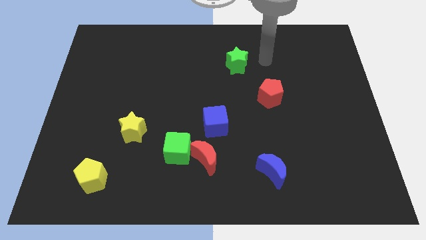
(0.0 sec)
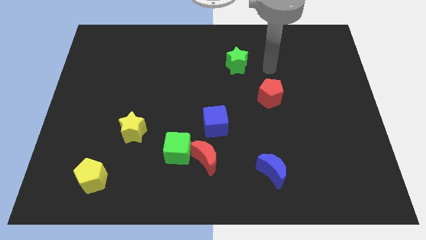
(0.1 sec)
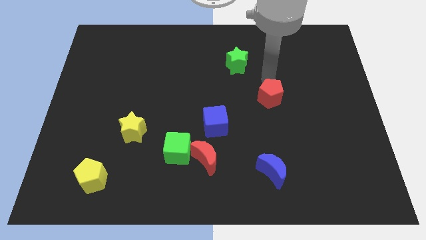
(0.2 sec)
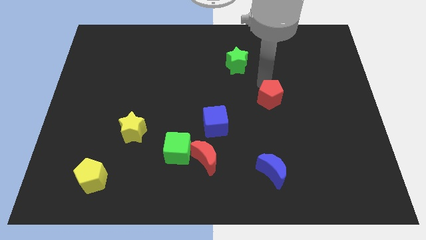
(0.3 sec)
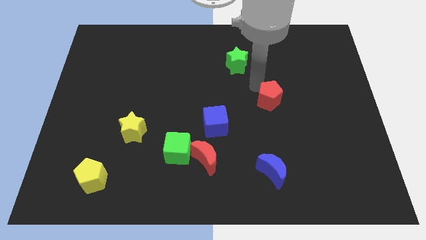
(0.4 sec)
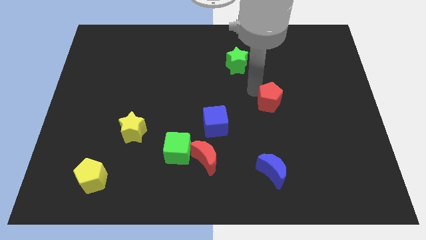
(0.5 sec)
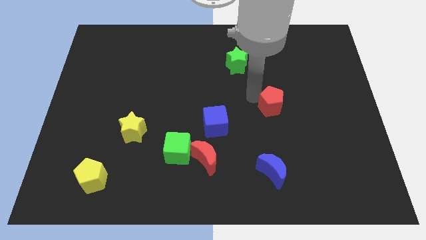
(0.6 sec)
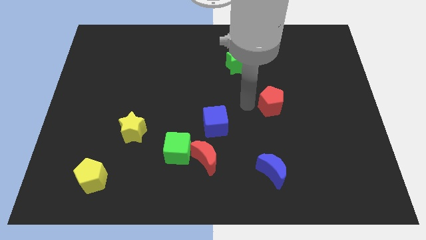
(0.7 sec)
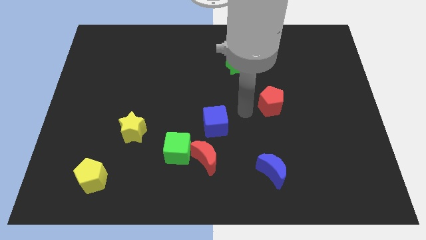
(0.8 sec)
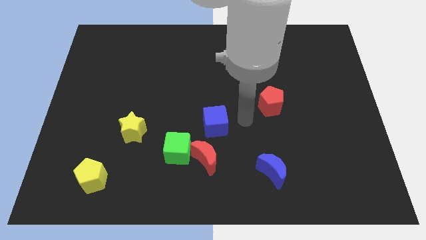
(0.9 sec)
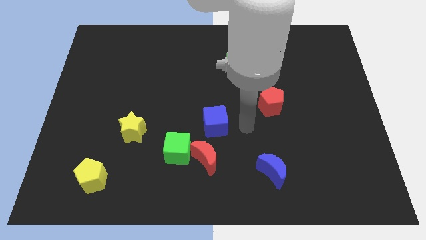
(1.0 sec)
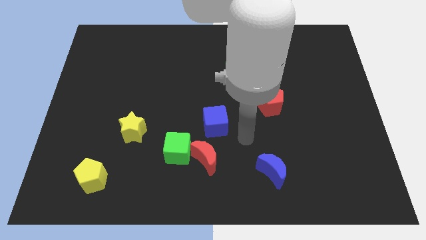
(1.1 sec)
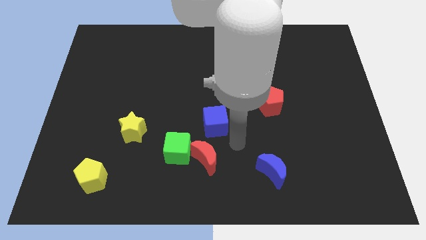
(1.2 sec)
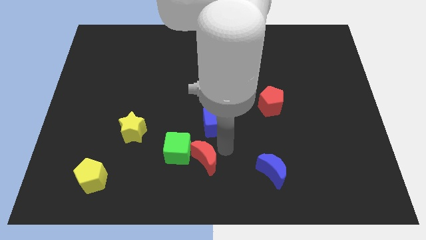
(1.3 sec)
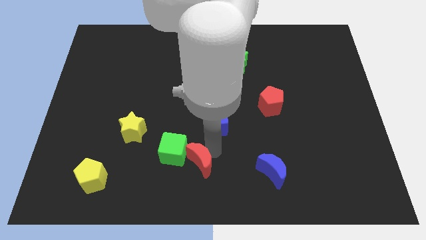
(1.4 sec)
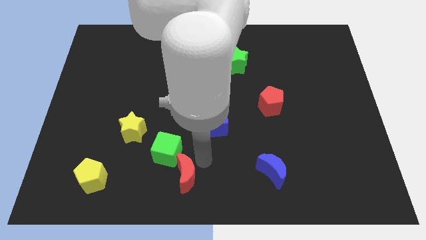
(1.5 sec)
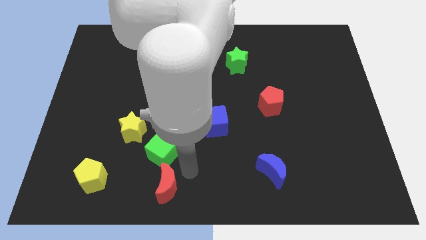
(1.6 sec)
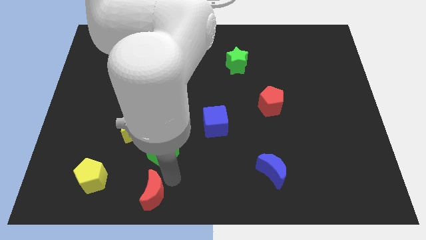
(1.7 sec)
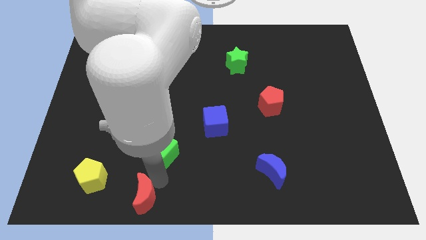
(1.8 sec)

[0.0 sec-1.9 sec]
pull the green cube apart from the red moon

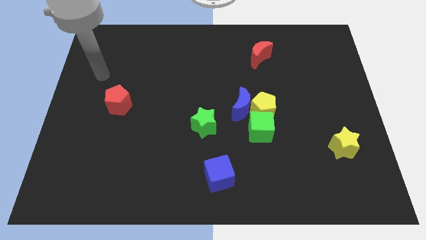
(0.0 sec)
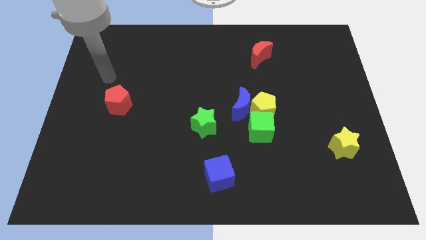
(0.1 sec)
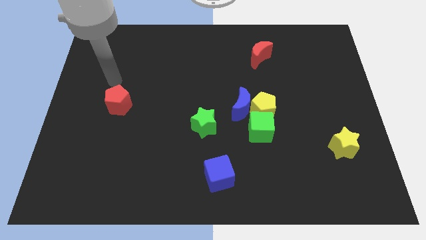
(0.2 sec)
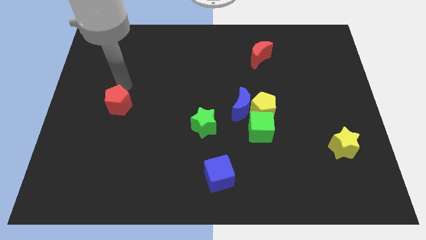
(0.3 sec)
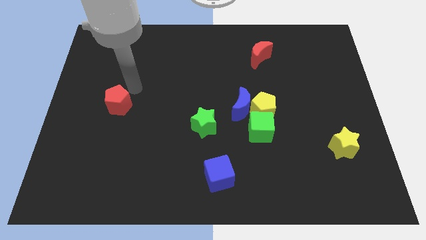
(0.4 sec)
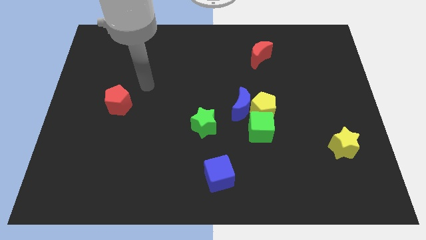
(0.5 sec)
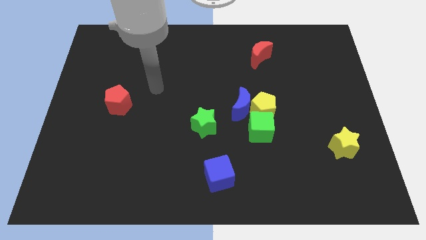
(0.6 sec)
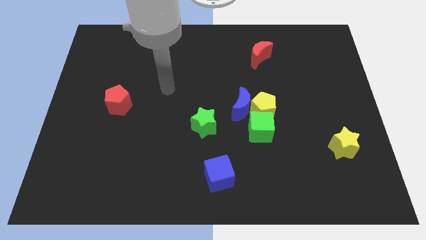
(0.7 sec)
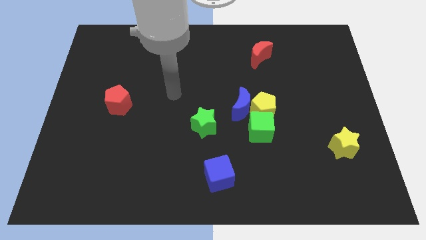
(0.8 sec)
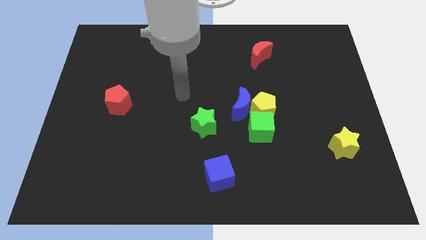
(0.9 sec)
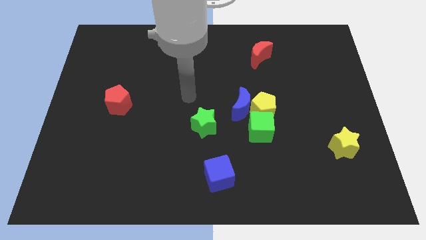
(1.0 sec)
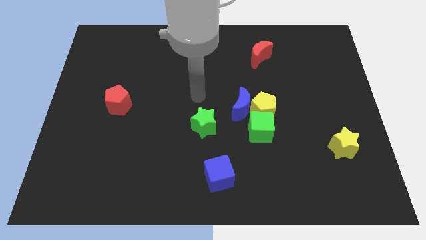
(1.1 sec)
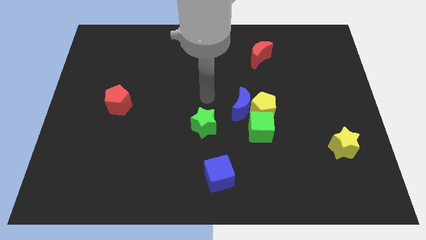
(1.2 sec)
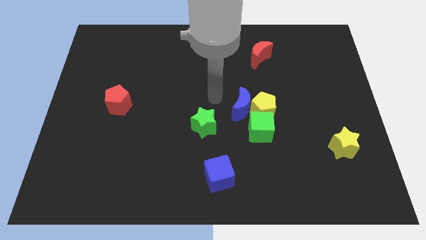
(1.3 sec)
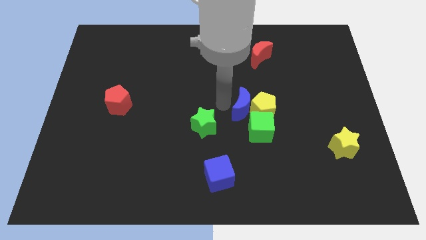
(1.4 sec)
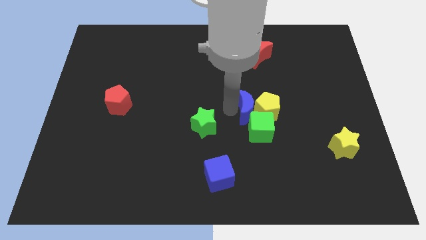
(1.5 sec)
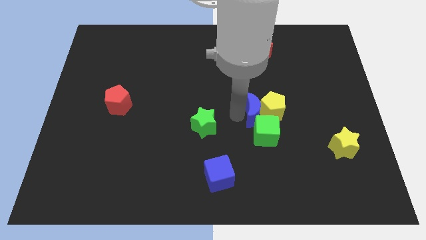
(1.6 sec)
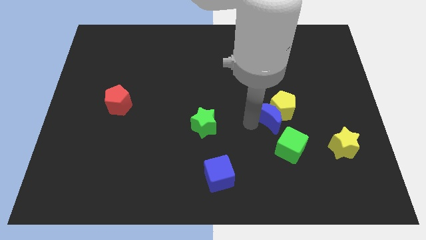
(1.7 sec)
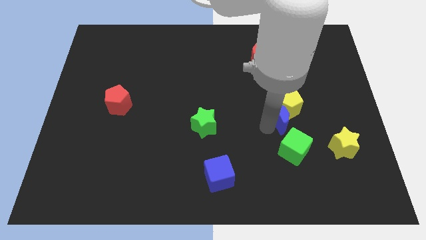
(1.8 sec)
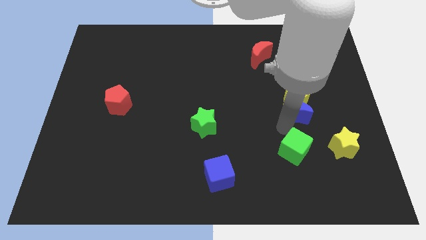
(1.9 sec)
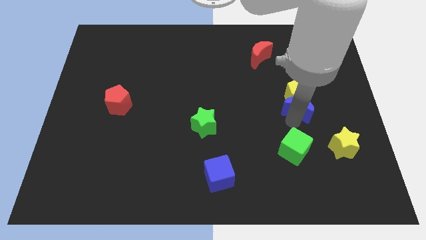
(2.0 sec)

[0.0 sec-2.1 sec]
move the yellow pentagon away from the blue moon and green cube

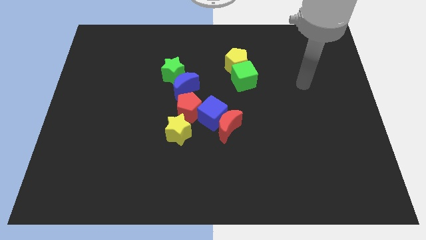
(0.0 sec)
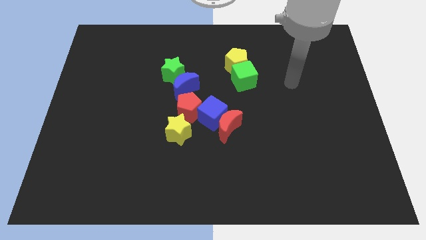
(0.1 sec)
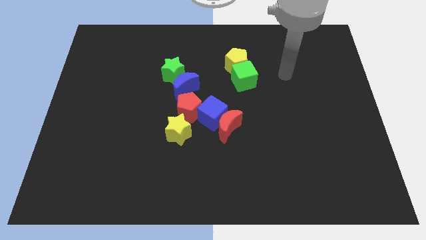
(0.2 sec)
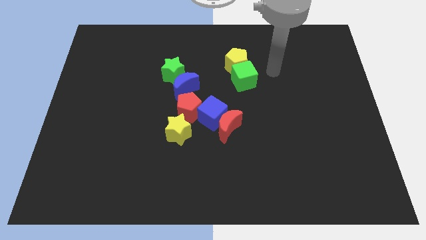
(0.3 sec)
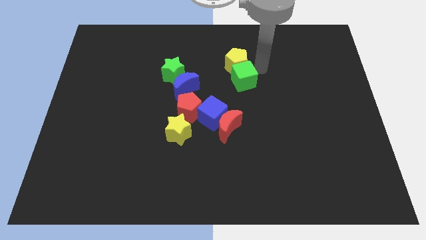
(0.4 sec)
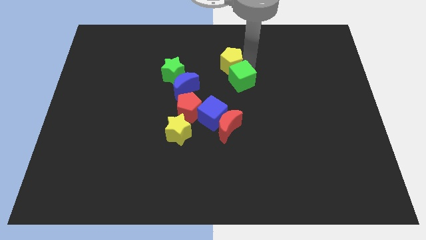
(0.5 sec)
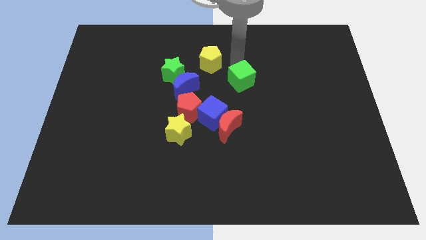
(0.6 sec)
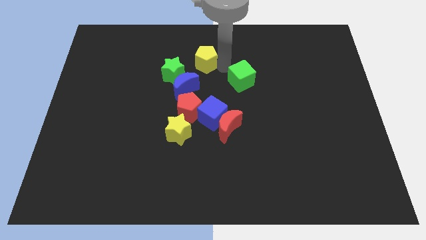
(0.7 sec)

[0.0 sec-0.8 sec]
pull the green cube apart from the yellow pentagon

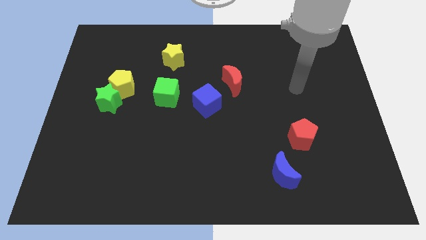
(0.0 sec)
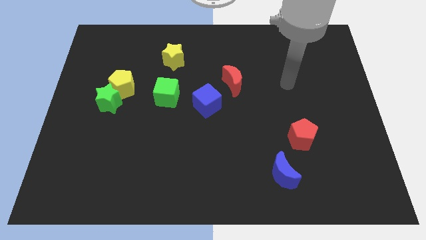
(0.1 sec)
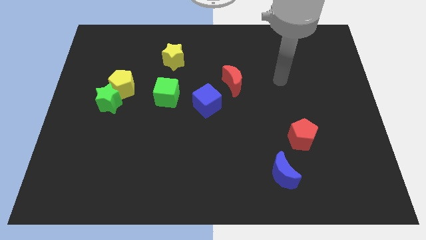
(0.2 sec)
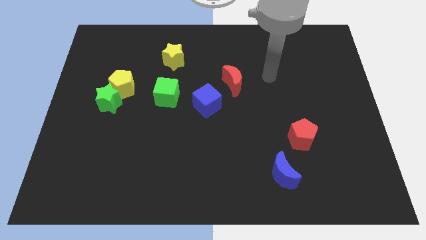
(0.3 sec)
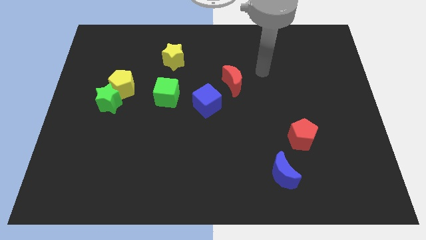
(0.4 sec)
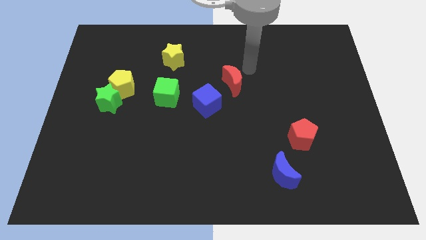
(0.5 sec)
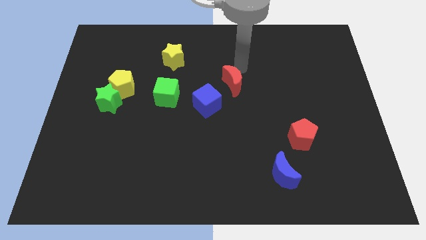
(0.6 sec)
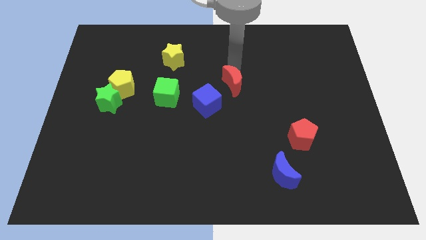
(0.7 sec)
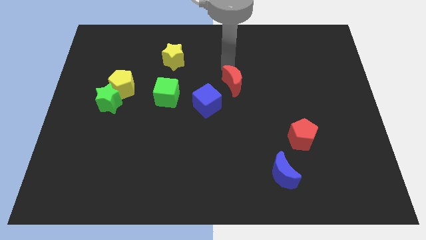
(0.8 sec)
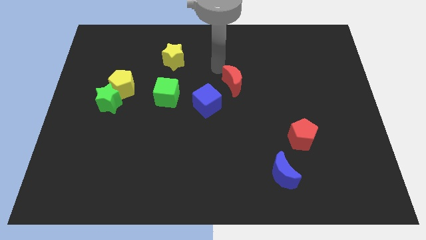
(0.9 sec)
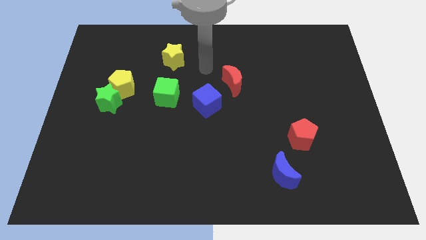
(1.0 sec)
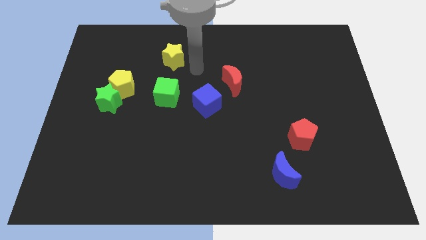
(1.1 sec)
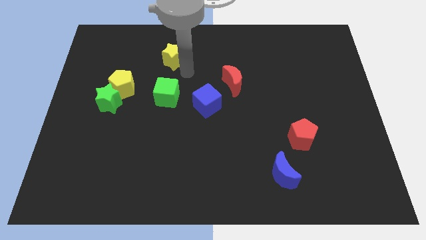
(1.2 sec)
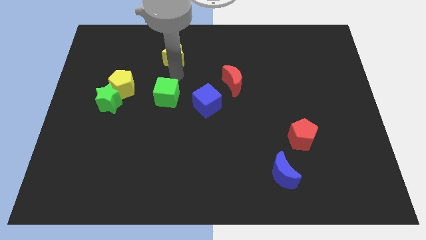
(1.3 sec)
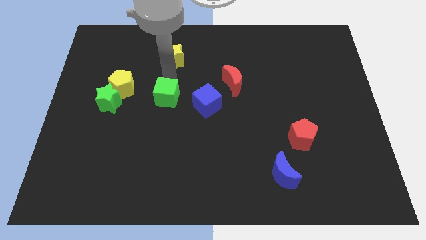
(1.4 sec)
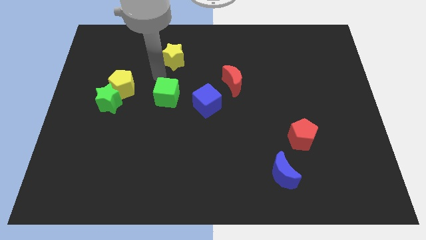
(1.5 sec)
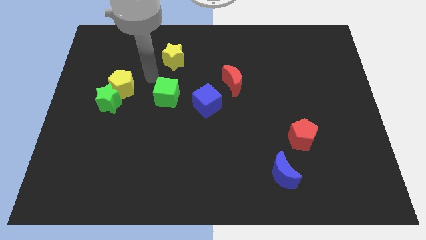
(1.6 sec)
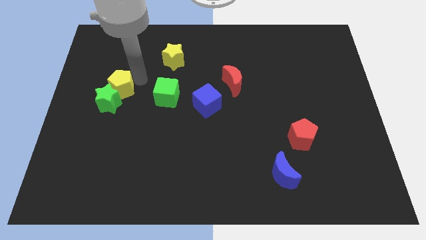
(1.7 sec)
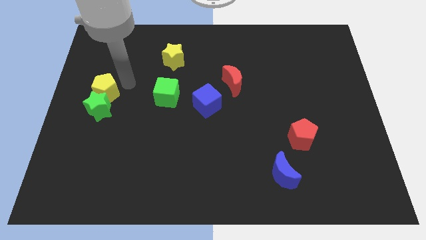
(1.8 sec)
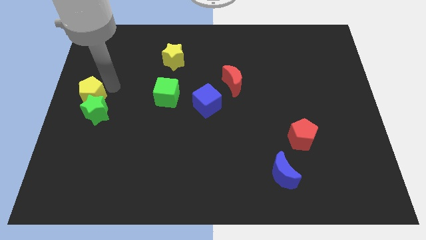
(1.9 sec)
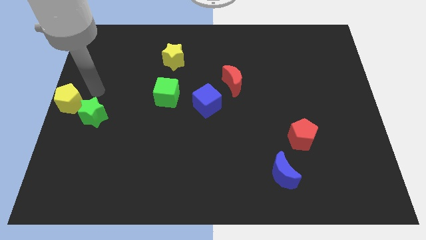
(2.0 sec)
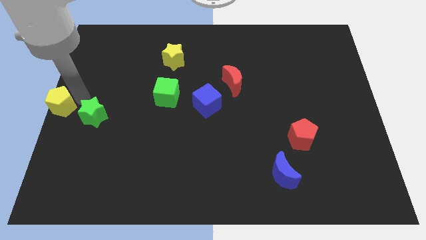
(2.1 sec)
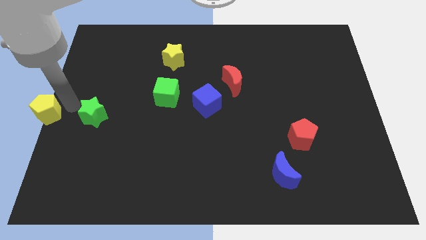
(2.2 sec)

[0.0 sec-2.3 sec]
pull the green star apart from the yellow pentagon

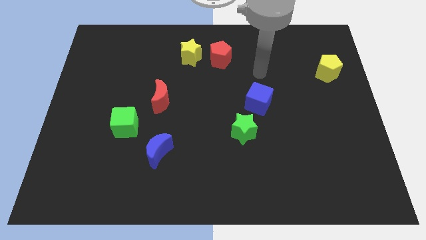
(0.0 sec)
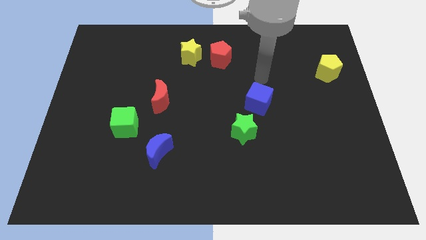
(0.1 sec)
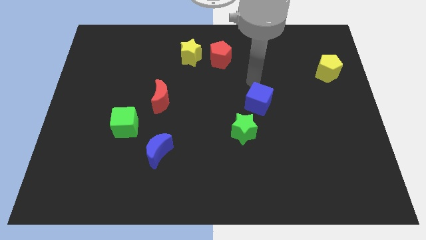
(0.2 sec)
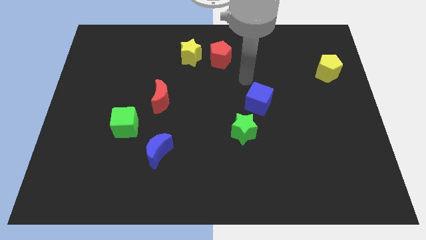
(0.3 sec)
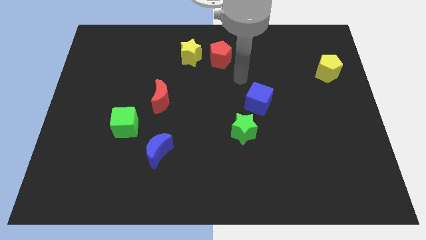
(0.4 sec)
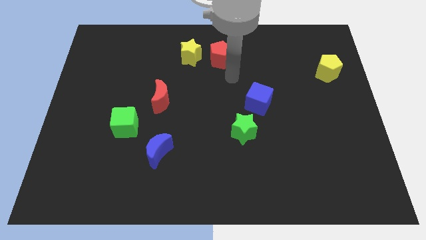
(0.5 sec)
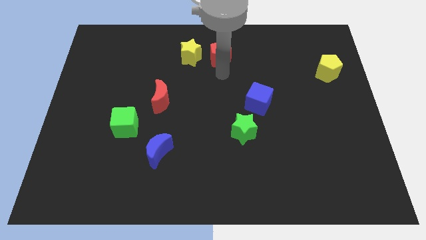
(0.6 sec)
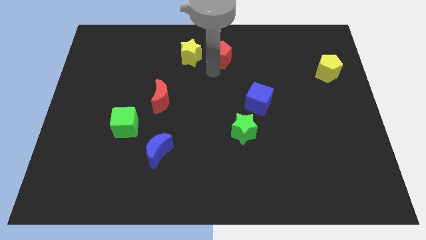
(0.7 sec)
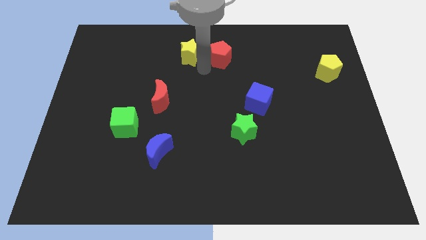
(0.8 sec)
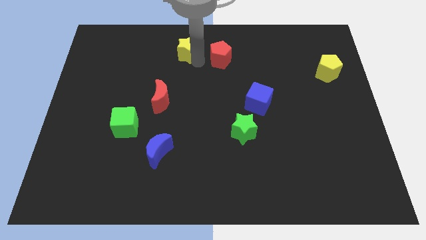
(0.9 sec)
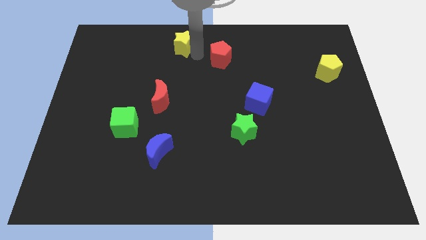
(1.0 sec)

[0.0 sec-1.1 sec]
pull the red pentagon apart from the yellow star

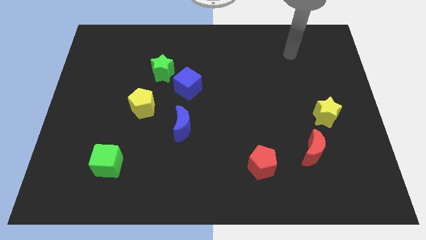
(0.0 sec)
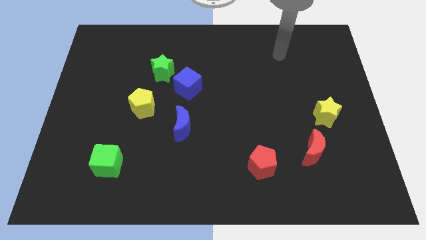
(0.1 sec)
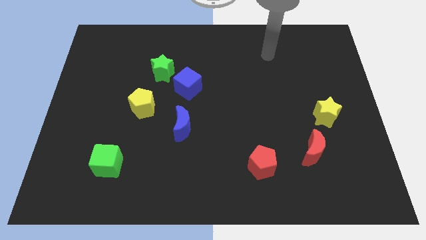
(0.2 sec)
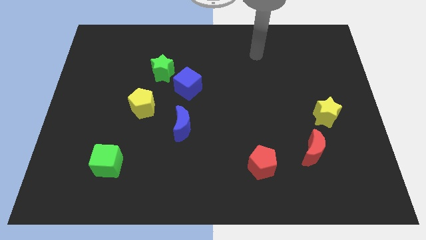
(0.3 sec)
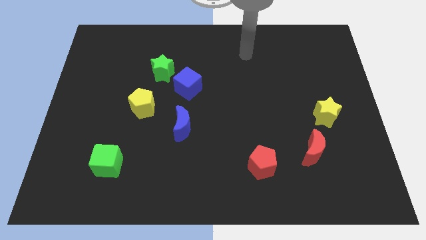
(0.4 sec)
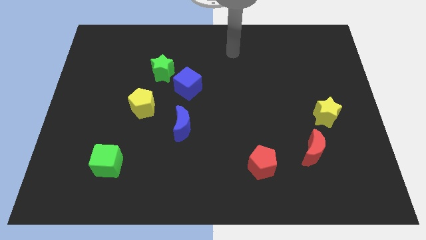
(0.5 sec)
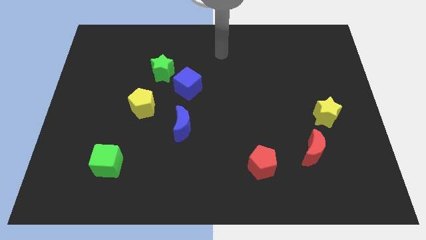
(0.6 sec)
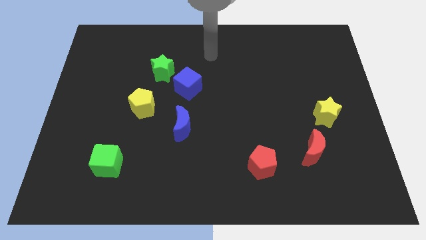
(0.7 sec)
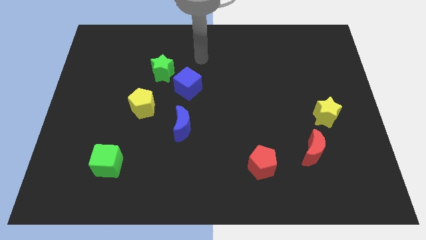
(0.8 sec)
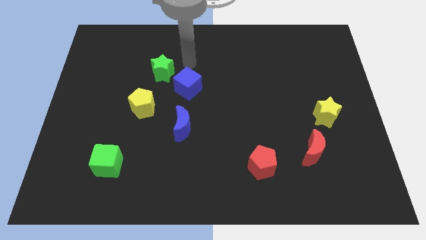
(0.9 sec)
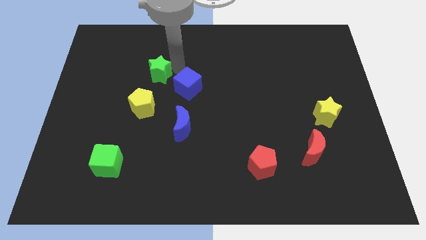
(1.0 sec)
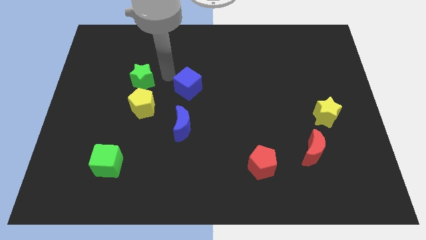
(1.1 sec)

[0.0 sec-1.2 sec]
separate the blue cube from the green star
